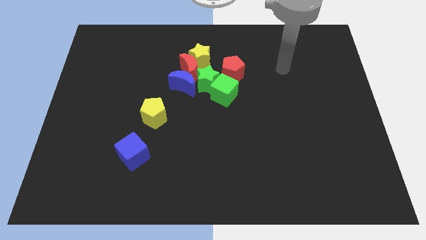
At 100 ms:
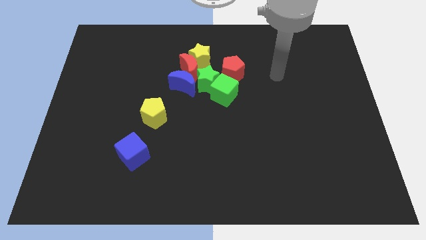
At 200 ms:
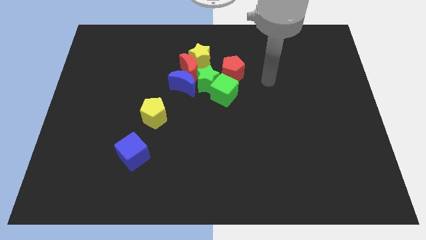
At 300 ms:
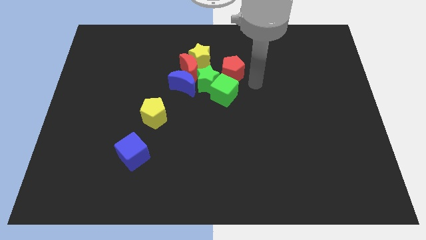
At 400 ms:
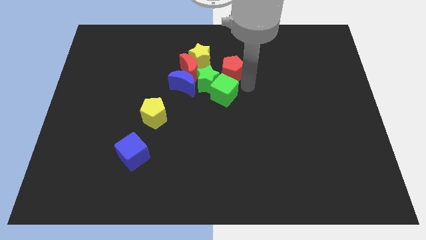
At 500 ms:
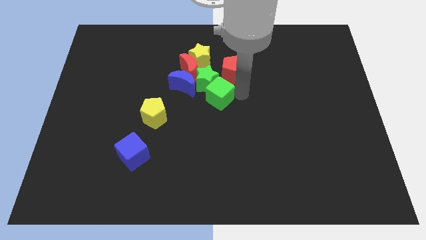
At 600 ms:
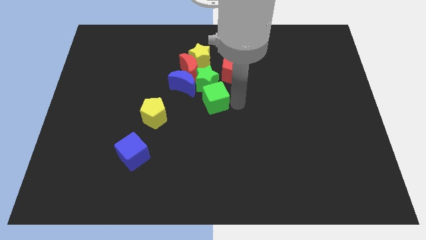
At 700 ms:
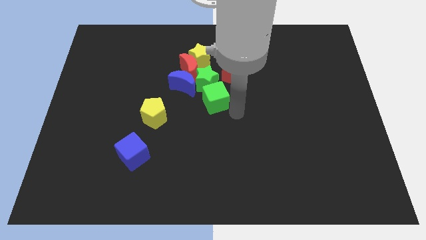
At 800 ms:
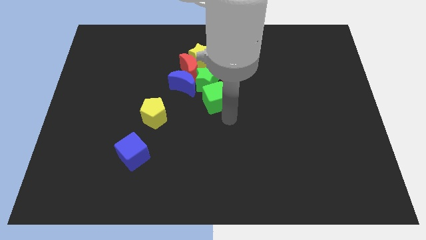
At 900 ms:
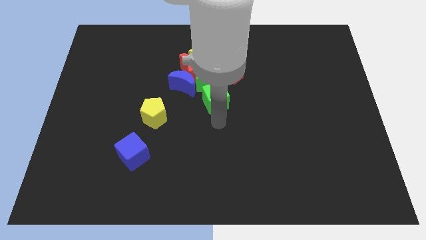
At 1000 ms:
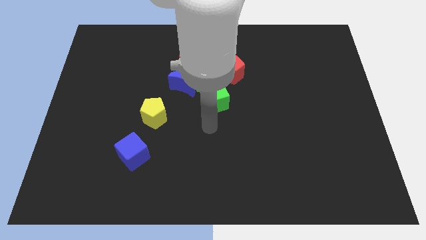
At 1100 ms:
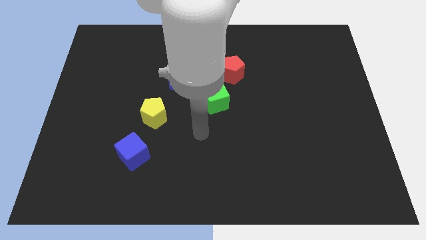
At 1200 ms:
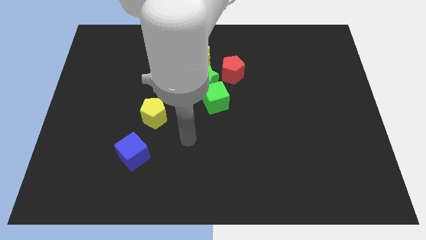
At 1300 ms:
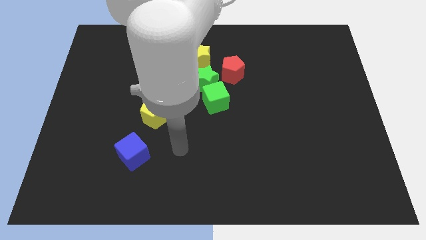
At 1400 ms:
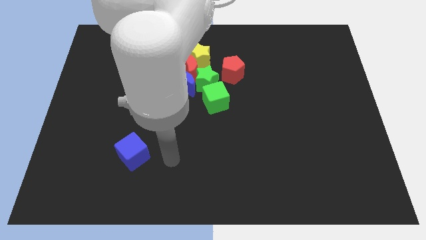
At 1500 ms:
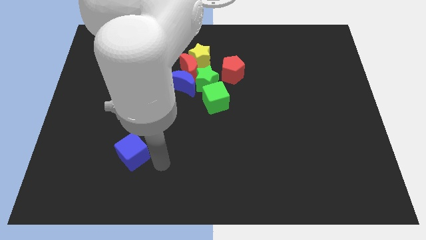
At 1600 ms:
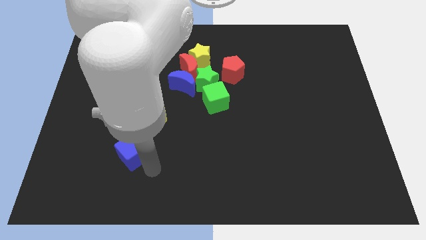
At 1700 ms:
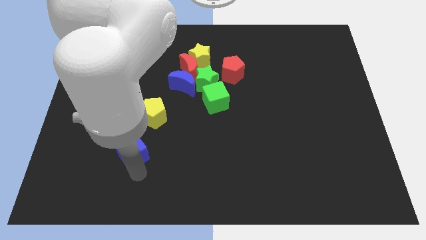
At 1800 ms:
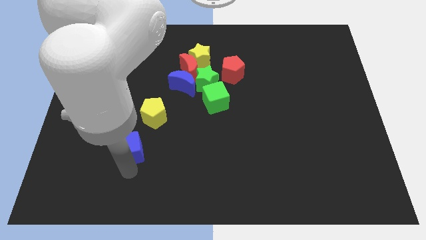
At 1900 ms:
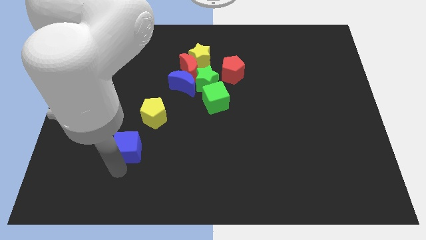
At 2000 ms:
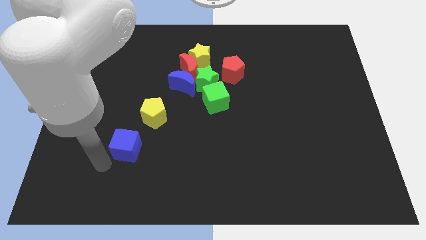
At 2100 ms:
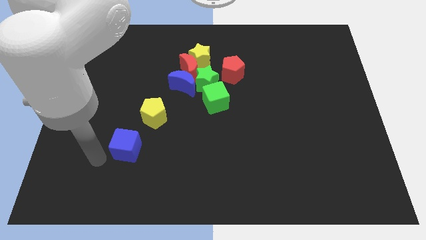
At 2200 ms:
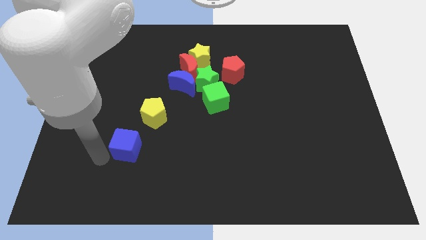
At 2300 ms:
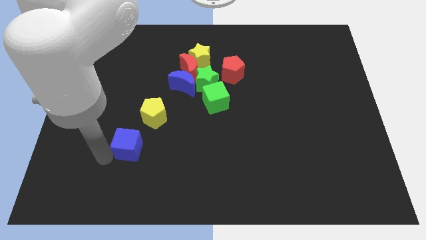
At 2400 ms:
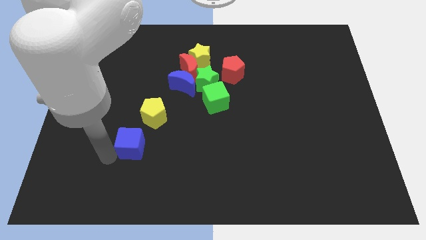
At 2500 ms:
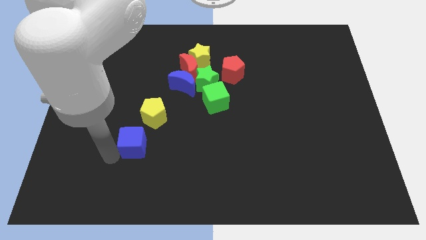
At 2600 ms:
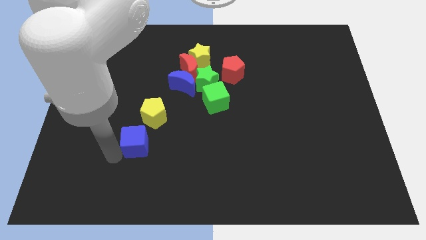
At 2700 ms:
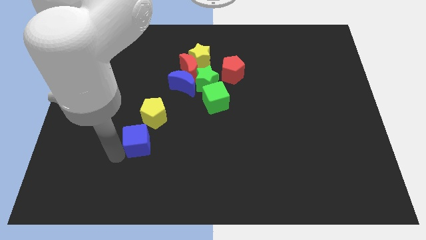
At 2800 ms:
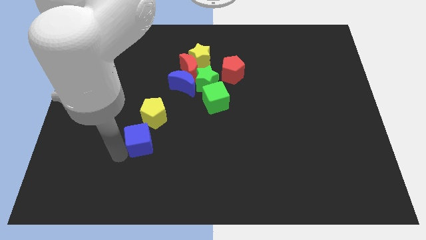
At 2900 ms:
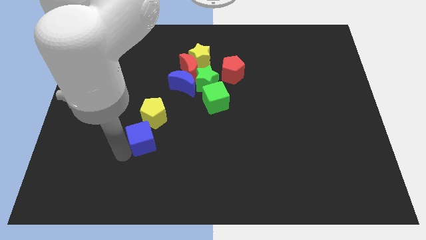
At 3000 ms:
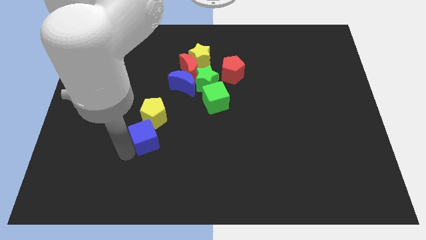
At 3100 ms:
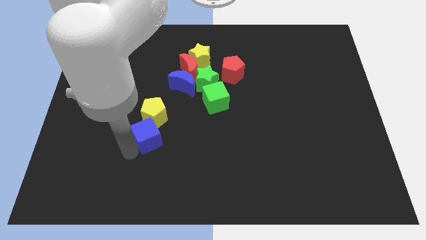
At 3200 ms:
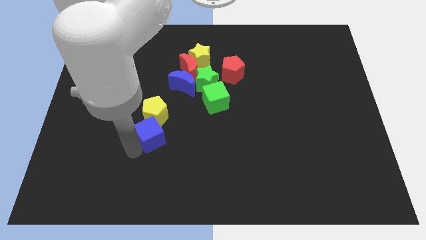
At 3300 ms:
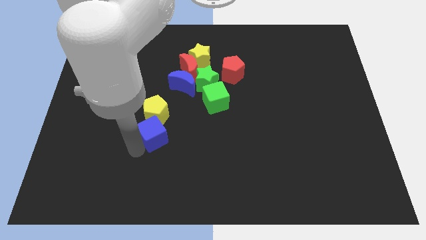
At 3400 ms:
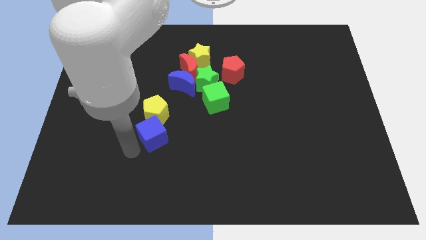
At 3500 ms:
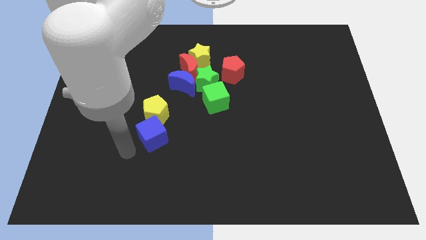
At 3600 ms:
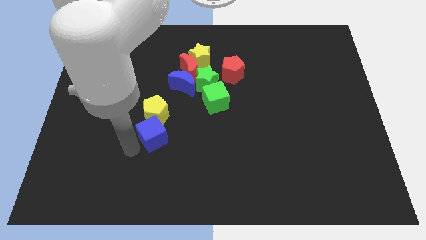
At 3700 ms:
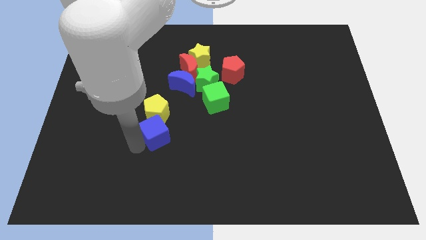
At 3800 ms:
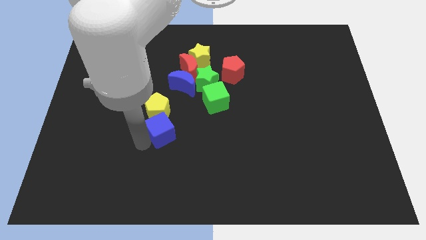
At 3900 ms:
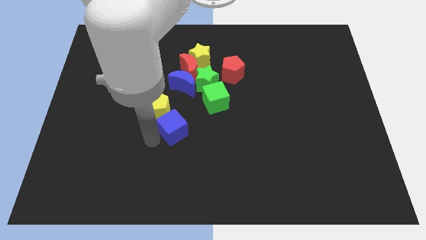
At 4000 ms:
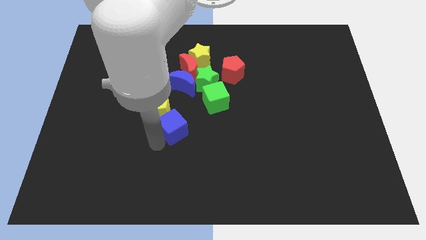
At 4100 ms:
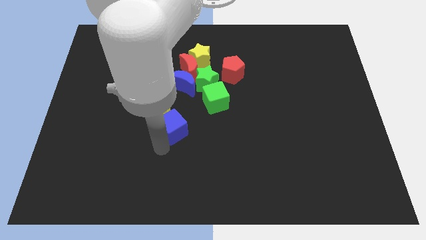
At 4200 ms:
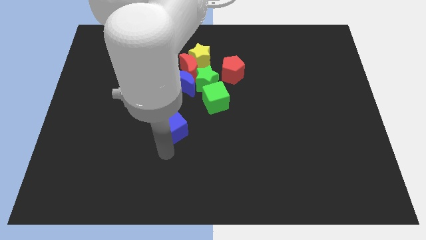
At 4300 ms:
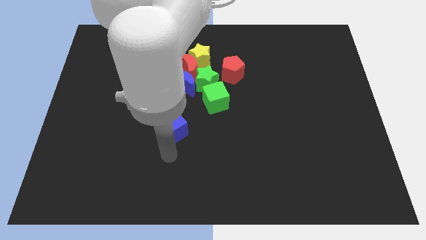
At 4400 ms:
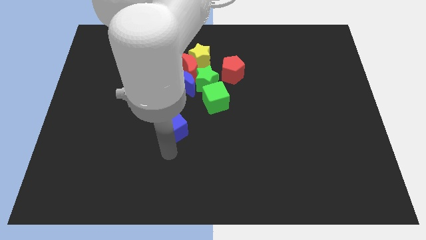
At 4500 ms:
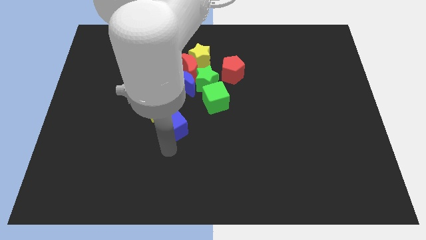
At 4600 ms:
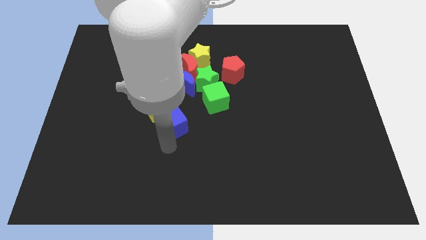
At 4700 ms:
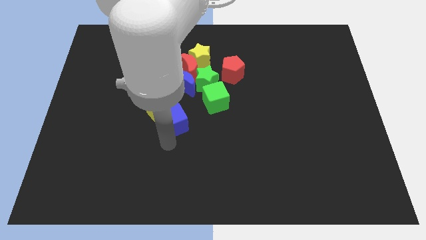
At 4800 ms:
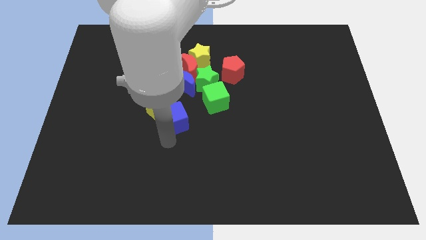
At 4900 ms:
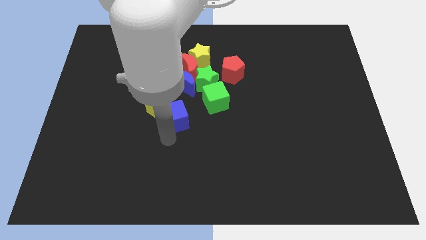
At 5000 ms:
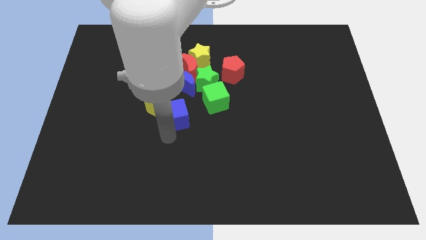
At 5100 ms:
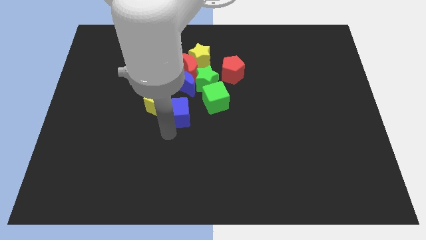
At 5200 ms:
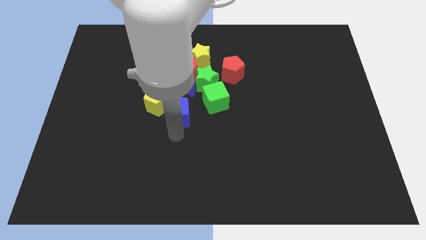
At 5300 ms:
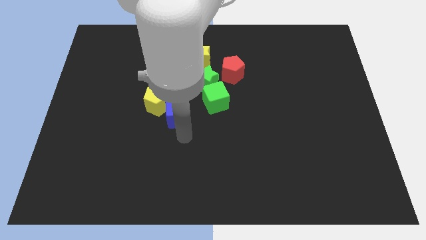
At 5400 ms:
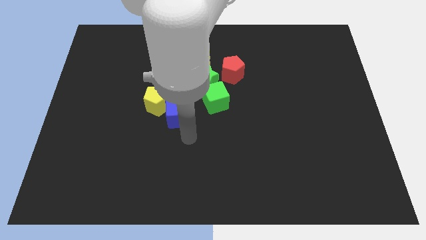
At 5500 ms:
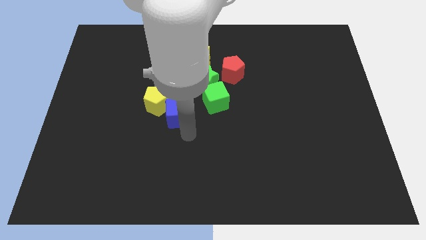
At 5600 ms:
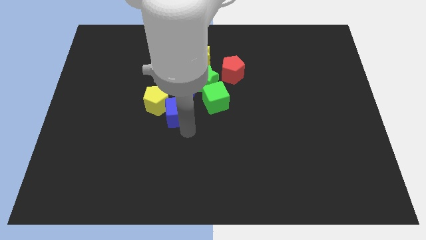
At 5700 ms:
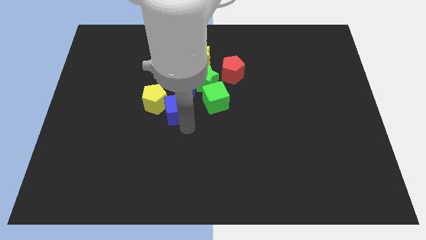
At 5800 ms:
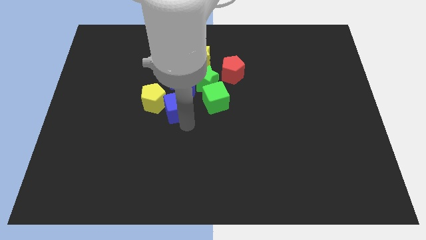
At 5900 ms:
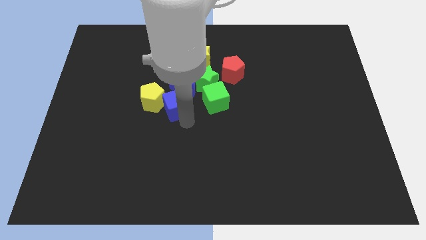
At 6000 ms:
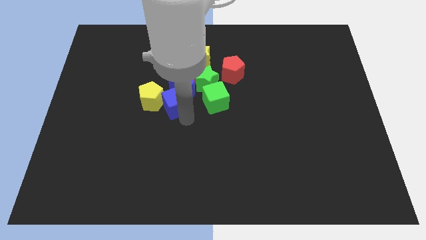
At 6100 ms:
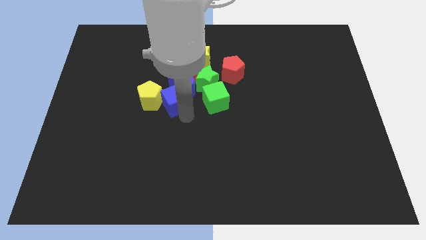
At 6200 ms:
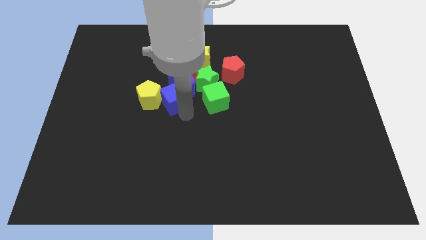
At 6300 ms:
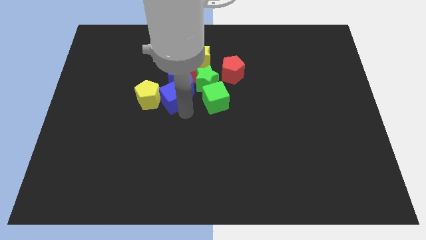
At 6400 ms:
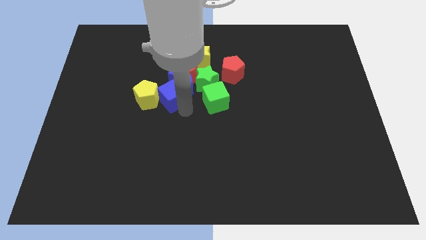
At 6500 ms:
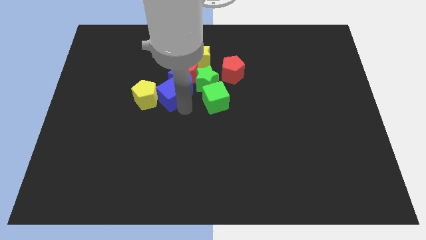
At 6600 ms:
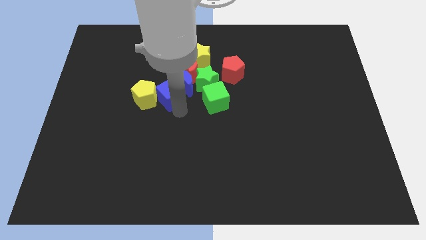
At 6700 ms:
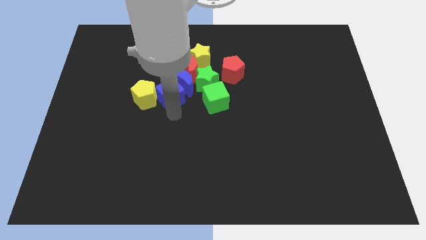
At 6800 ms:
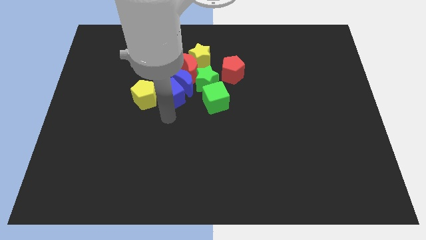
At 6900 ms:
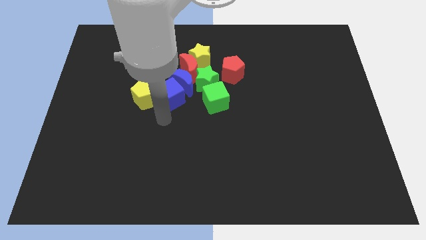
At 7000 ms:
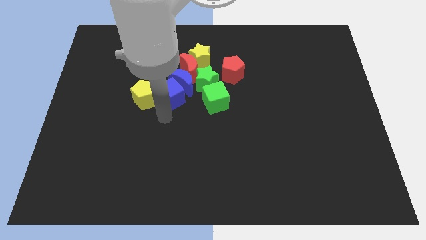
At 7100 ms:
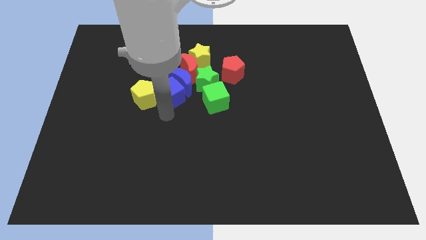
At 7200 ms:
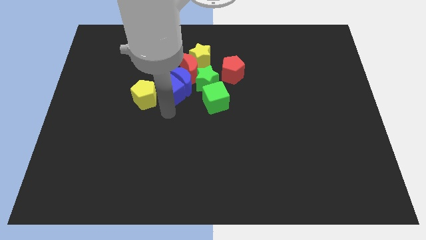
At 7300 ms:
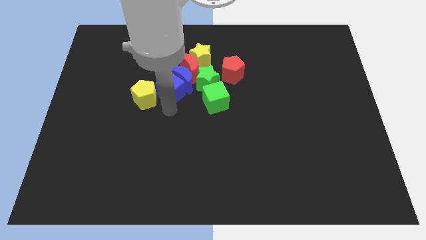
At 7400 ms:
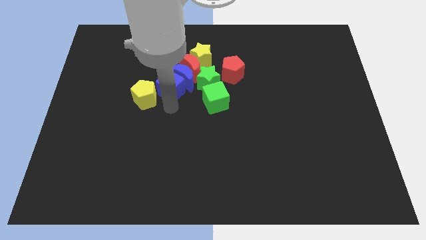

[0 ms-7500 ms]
move the blue cube diagonally down and to the left of the yellow star
